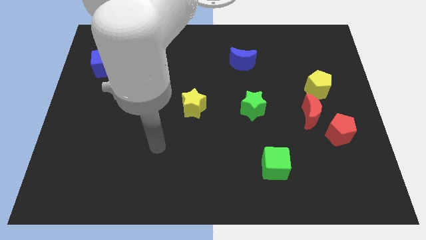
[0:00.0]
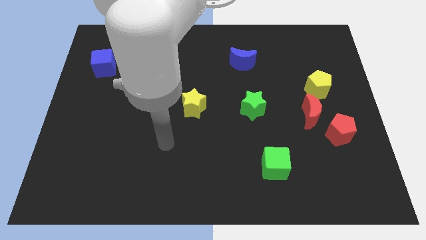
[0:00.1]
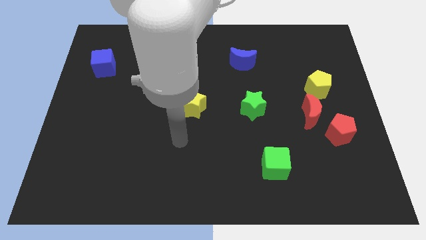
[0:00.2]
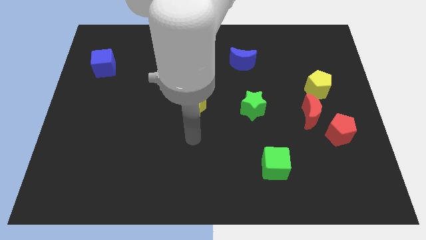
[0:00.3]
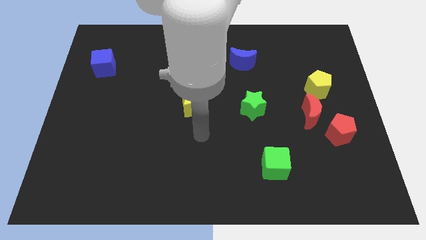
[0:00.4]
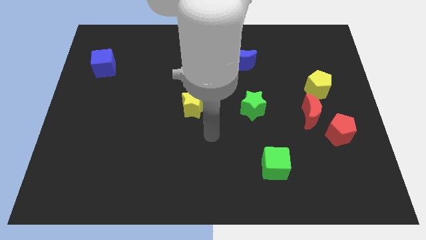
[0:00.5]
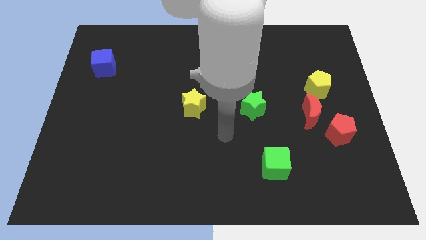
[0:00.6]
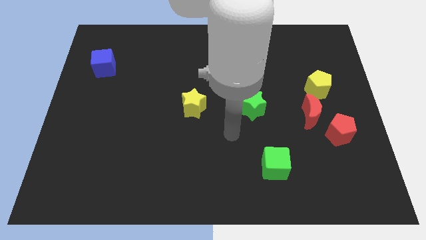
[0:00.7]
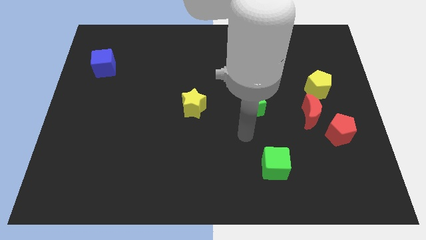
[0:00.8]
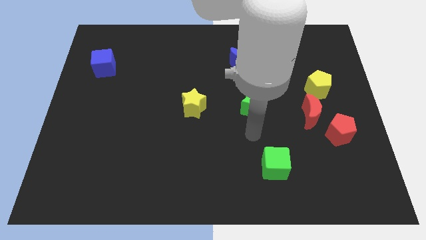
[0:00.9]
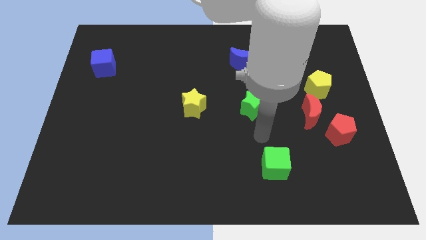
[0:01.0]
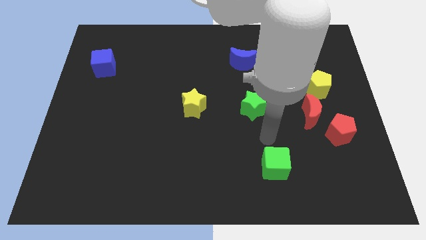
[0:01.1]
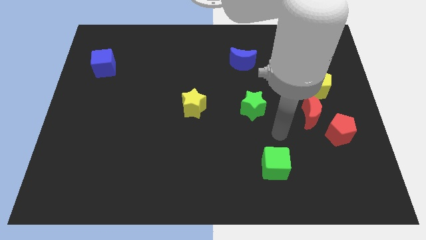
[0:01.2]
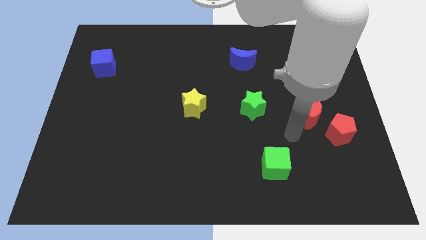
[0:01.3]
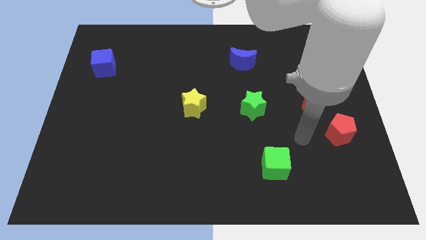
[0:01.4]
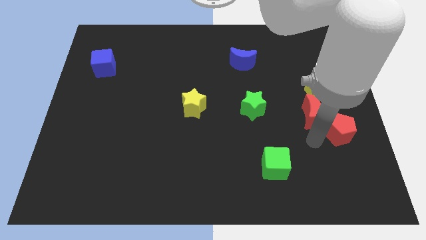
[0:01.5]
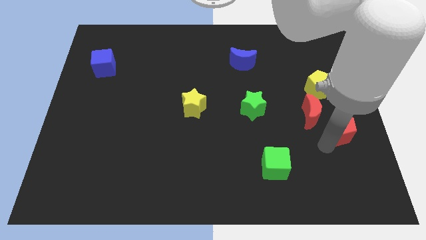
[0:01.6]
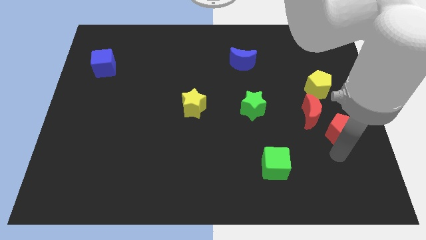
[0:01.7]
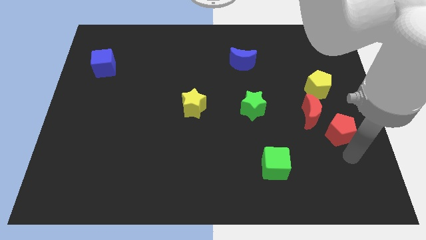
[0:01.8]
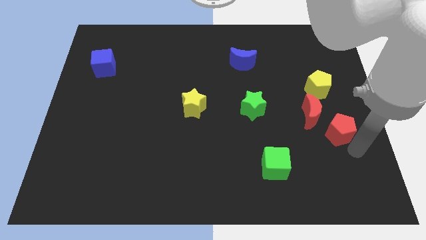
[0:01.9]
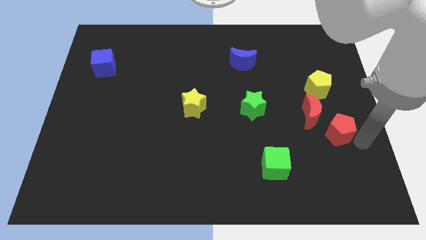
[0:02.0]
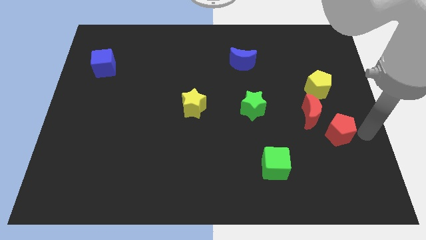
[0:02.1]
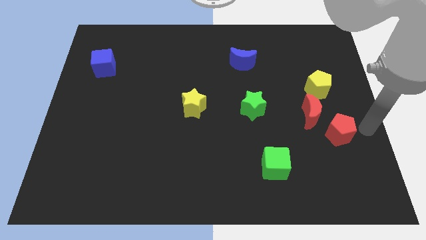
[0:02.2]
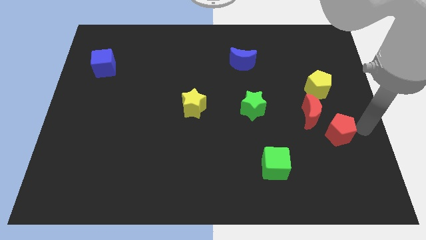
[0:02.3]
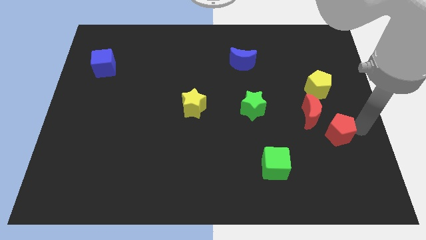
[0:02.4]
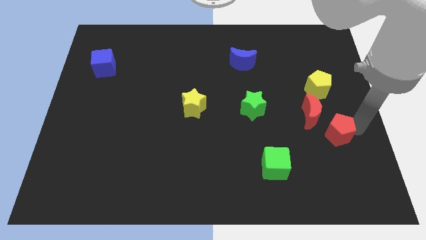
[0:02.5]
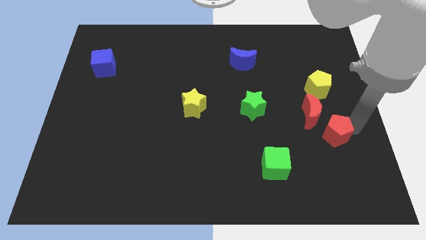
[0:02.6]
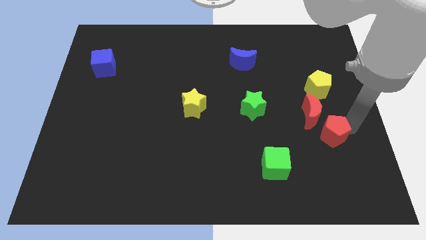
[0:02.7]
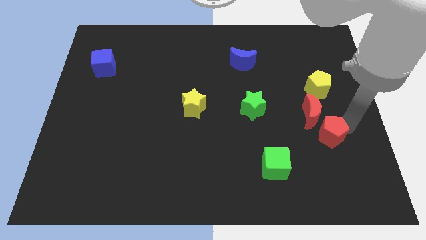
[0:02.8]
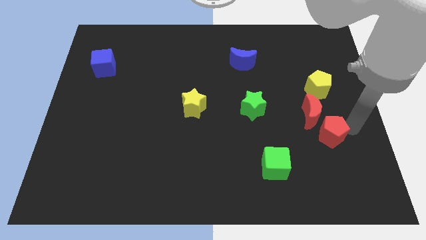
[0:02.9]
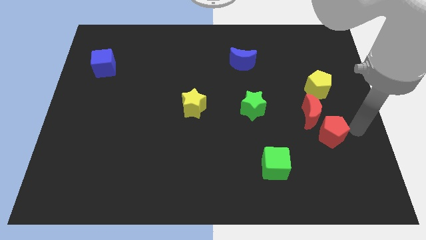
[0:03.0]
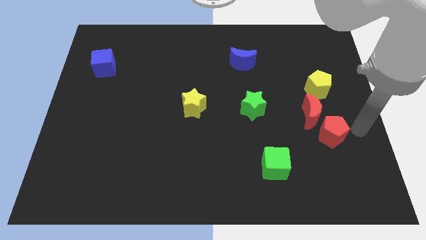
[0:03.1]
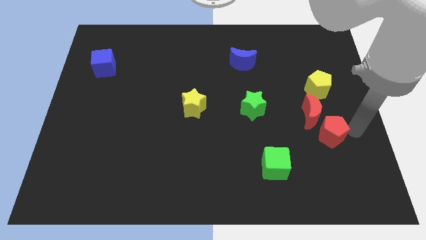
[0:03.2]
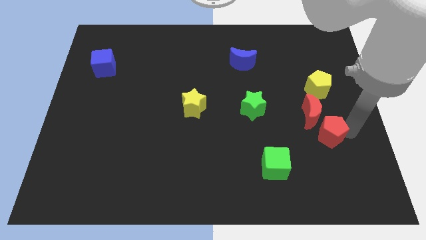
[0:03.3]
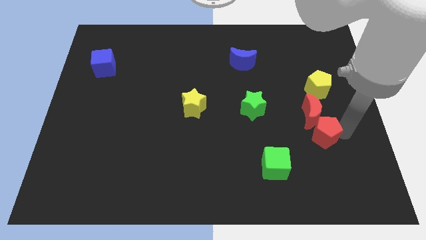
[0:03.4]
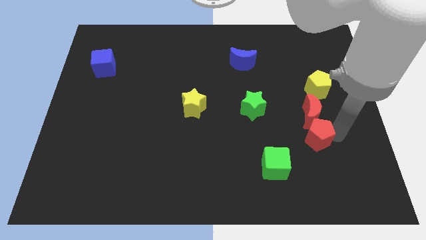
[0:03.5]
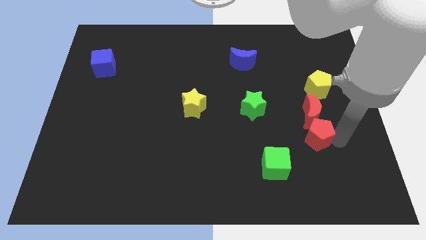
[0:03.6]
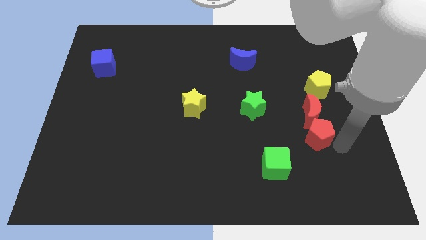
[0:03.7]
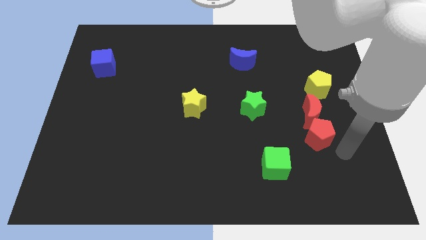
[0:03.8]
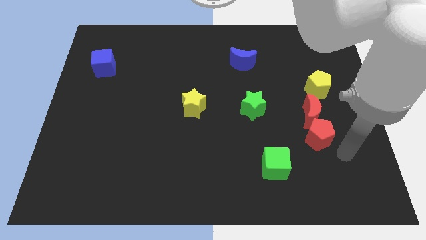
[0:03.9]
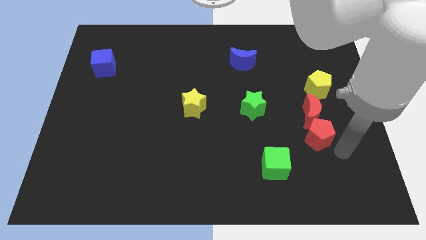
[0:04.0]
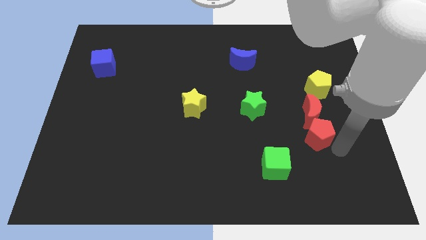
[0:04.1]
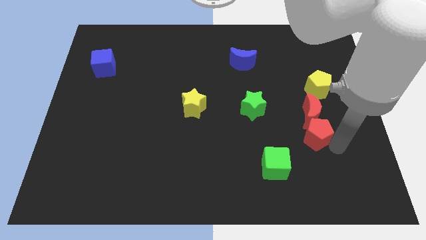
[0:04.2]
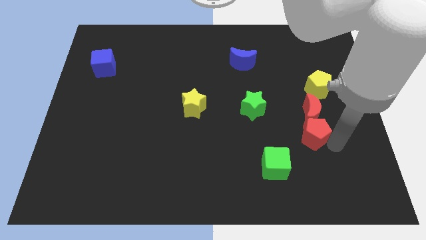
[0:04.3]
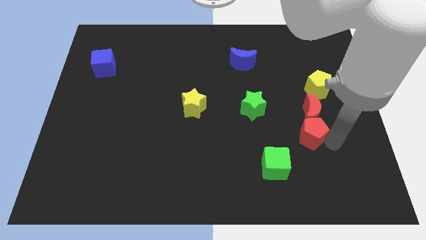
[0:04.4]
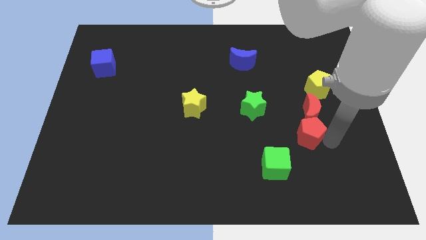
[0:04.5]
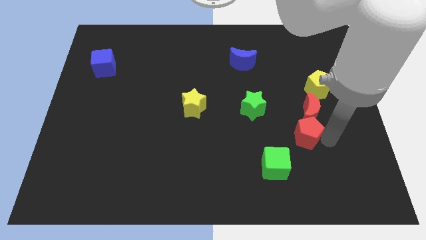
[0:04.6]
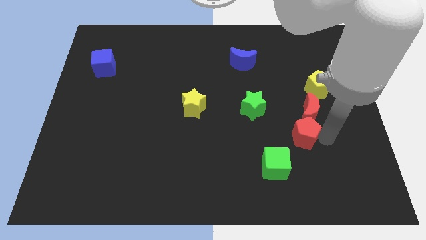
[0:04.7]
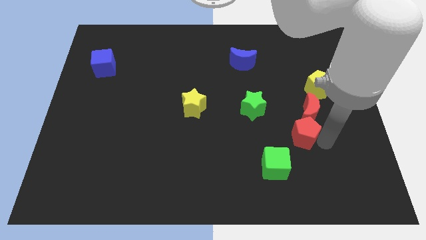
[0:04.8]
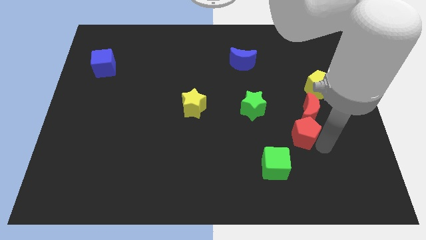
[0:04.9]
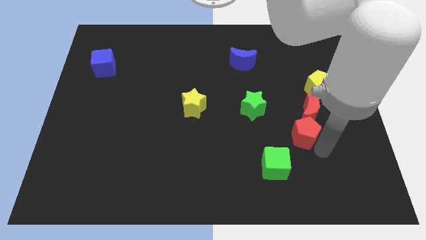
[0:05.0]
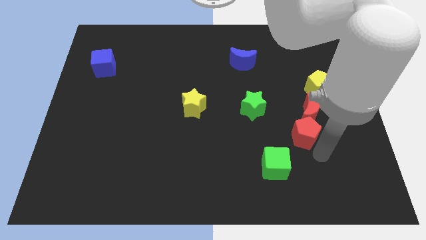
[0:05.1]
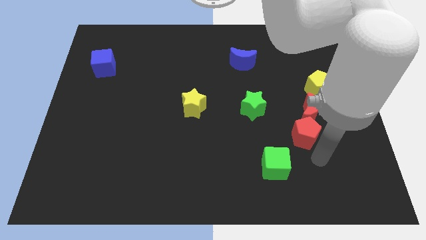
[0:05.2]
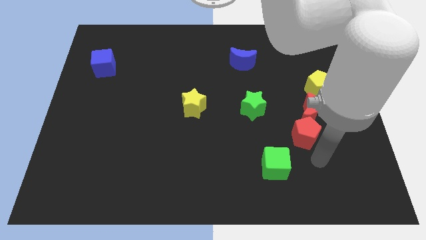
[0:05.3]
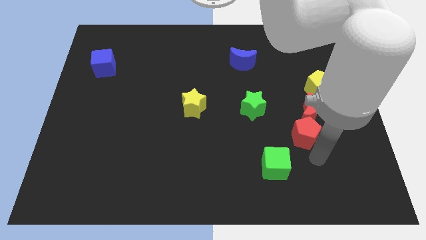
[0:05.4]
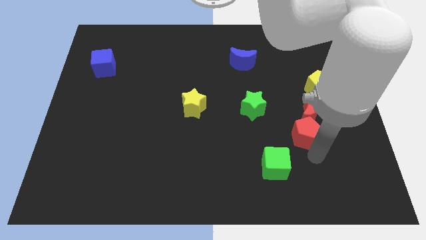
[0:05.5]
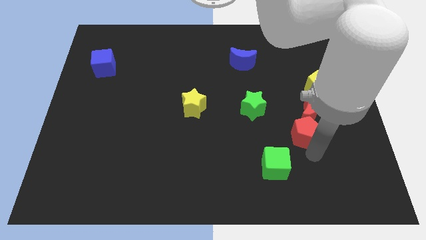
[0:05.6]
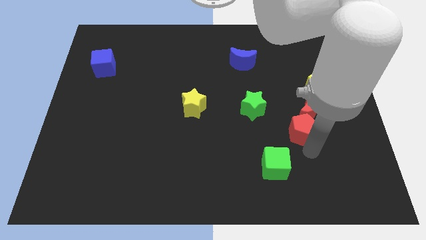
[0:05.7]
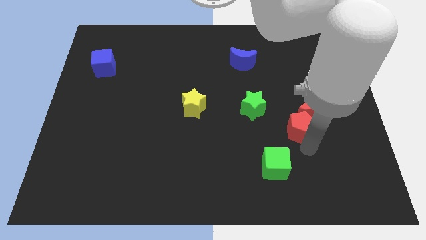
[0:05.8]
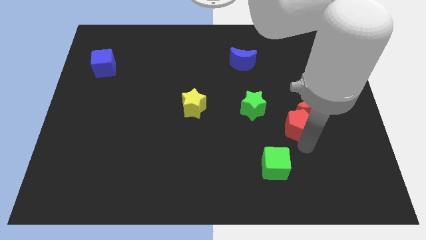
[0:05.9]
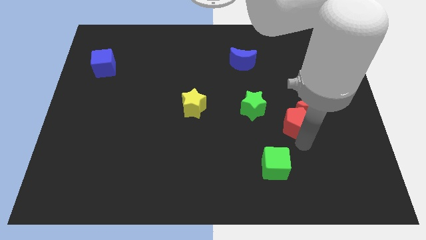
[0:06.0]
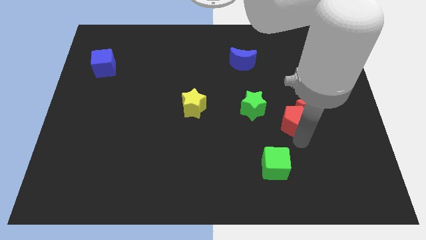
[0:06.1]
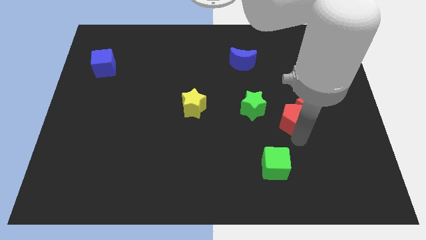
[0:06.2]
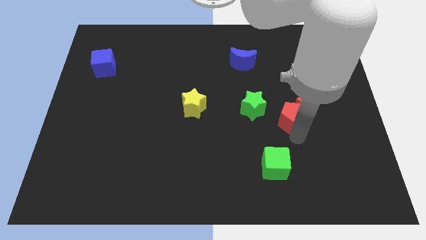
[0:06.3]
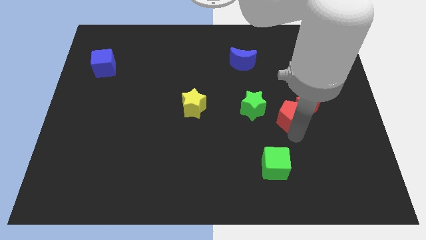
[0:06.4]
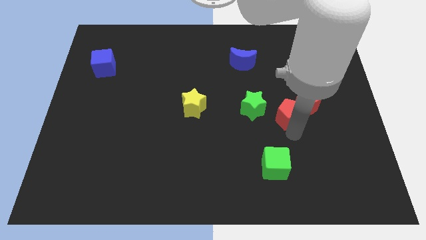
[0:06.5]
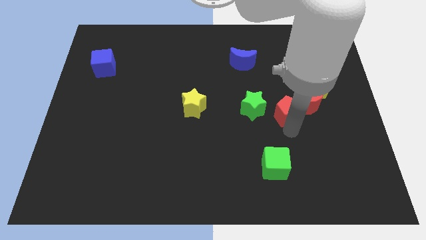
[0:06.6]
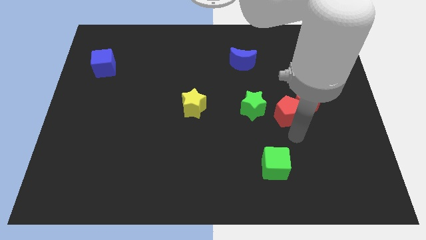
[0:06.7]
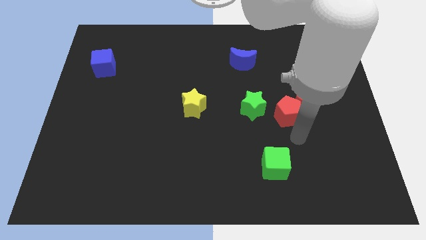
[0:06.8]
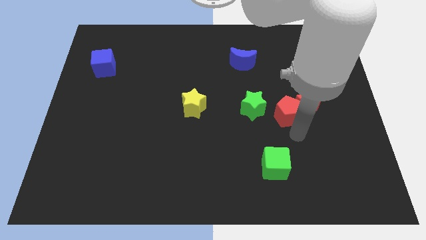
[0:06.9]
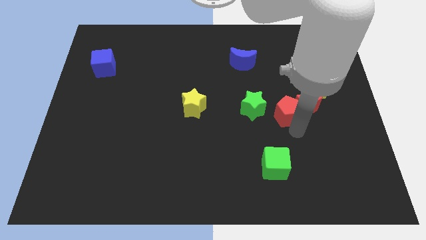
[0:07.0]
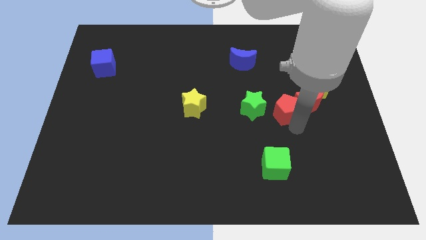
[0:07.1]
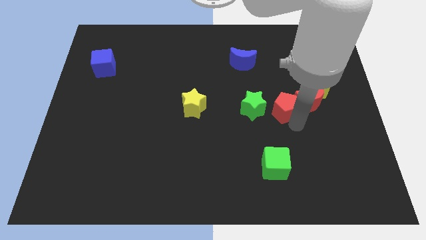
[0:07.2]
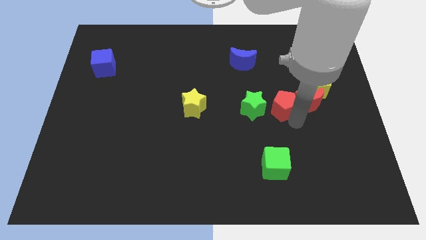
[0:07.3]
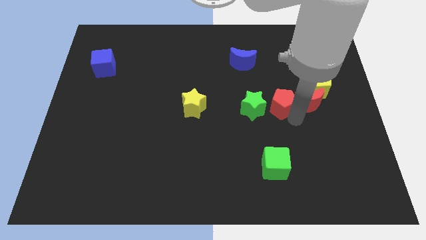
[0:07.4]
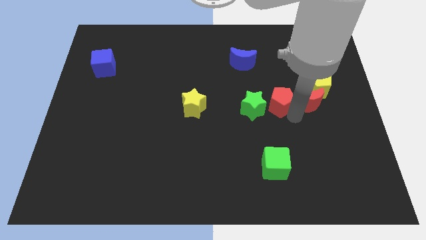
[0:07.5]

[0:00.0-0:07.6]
move the red pentagon left of the yellow pentagon

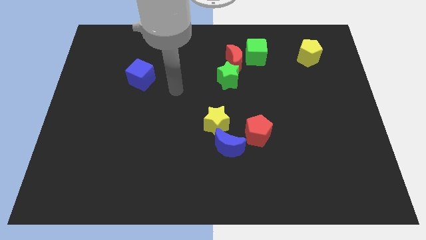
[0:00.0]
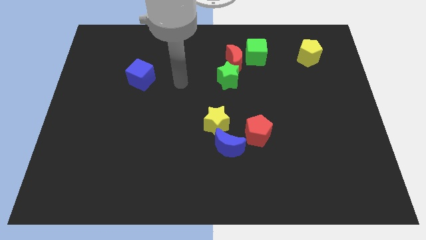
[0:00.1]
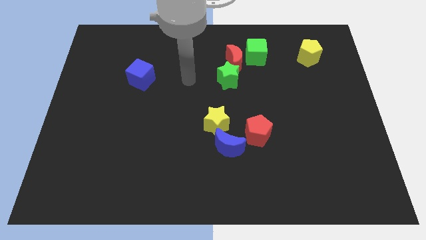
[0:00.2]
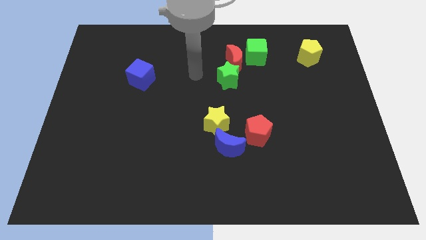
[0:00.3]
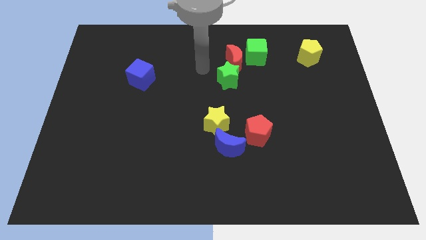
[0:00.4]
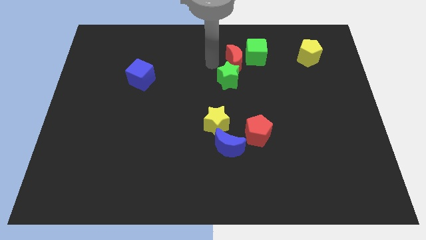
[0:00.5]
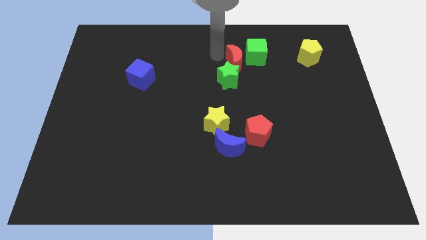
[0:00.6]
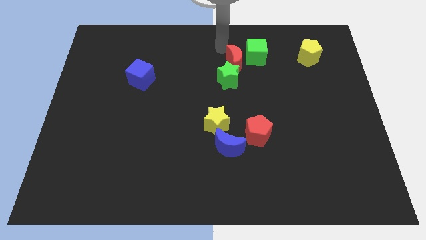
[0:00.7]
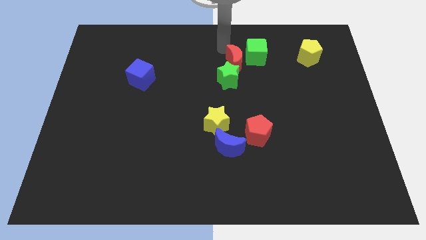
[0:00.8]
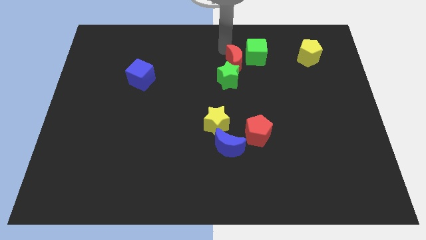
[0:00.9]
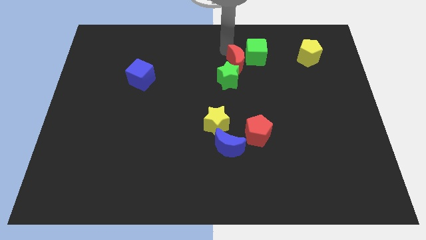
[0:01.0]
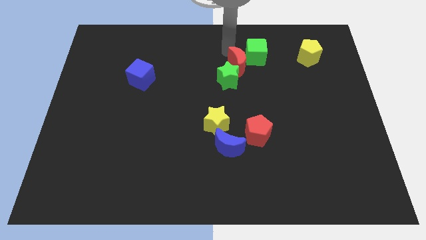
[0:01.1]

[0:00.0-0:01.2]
slide the red moon to the bottom side of the green cube
